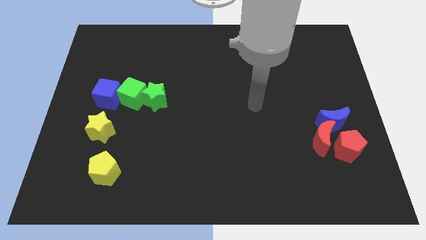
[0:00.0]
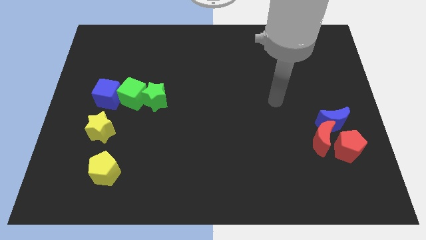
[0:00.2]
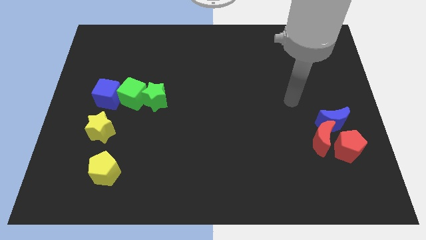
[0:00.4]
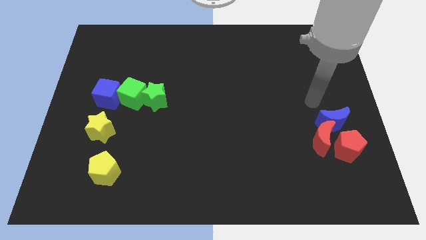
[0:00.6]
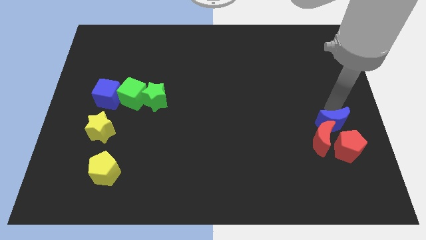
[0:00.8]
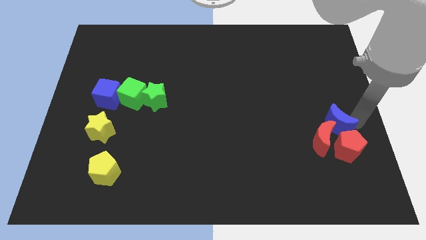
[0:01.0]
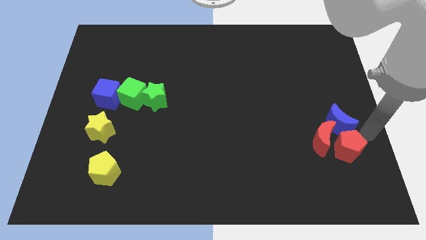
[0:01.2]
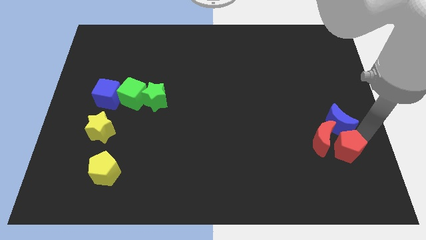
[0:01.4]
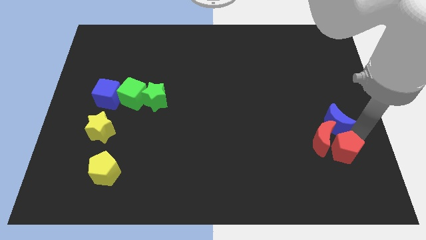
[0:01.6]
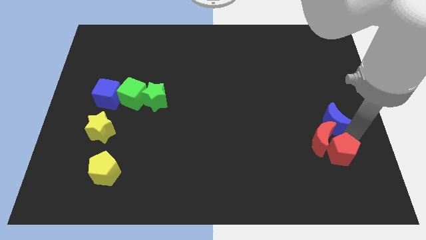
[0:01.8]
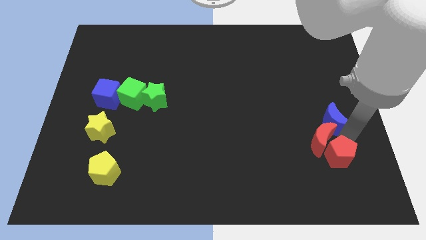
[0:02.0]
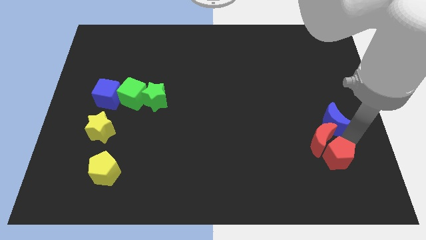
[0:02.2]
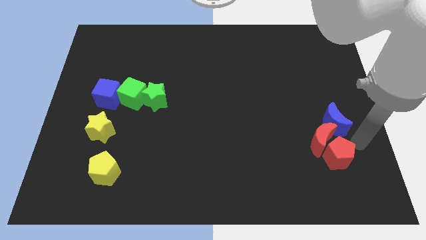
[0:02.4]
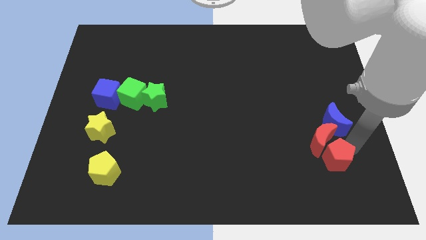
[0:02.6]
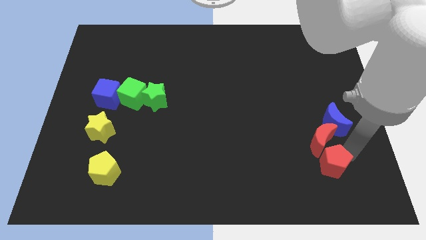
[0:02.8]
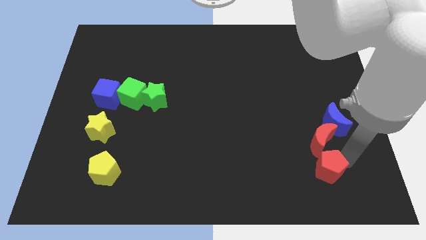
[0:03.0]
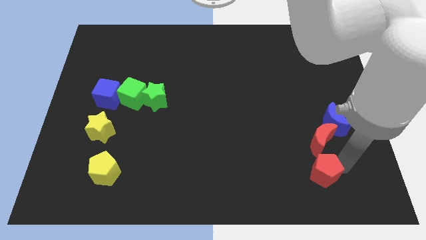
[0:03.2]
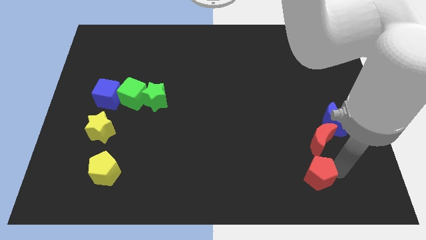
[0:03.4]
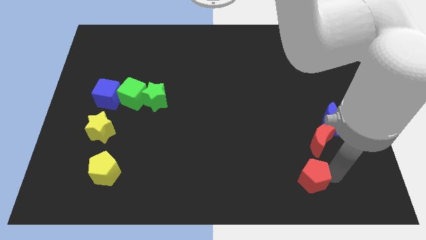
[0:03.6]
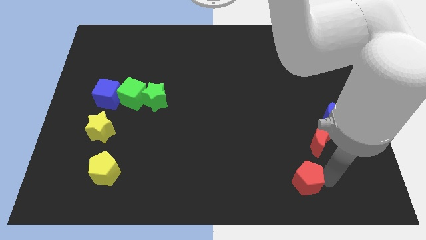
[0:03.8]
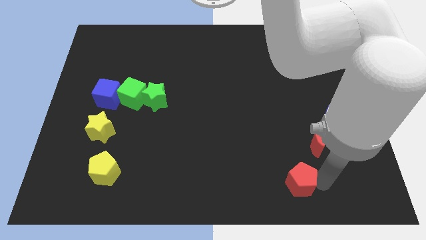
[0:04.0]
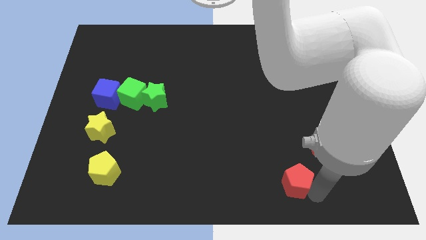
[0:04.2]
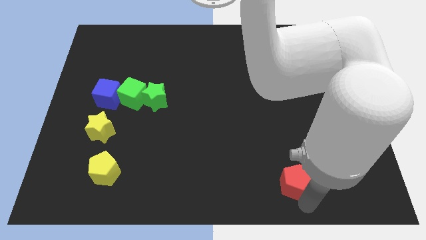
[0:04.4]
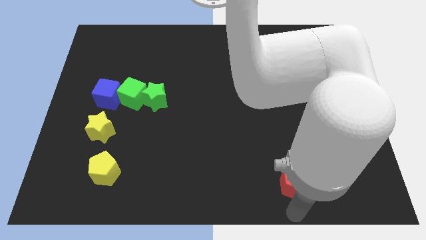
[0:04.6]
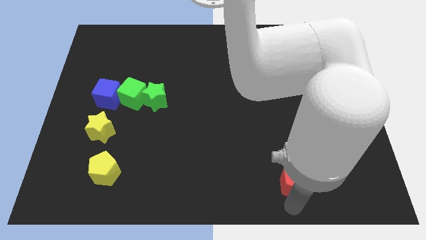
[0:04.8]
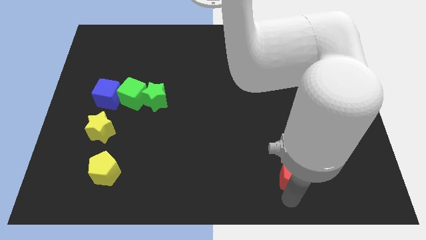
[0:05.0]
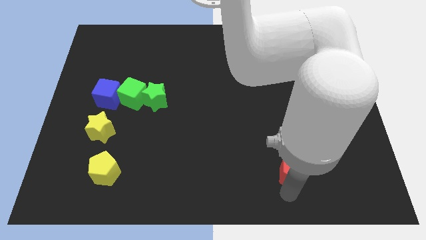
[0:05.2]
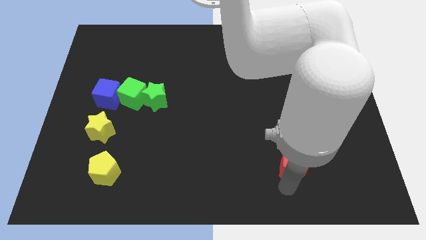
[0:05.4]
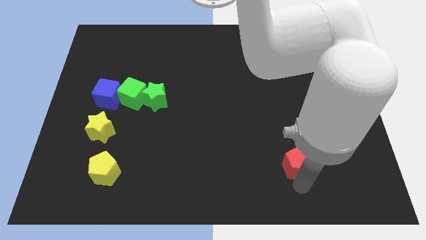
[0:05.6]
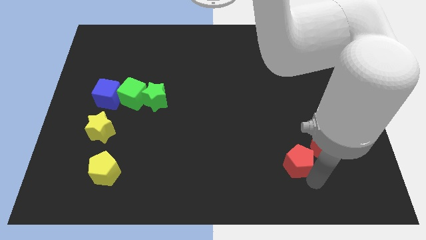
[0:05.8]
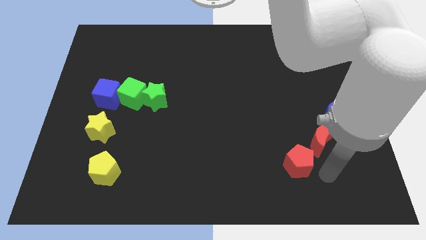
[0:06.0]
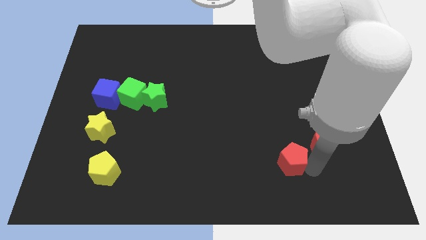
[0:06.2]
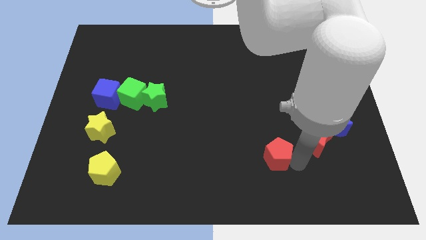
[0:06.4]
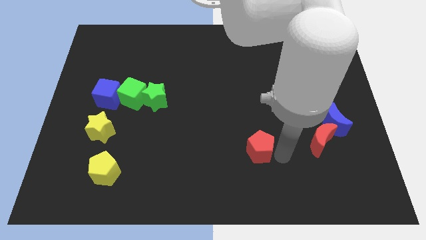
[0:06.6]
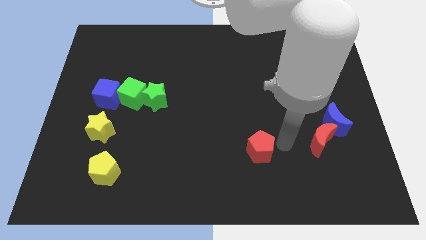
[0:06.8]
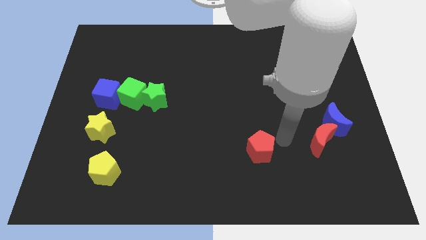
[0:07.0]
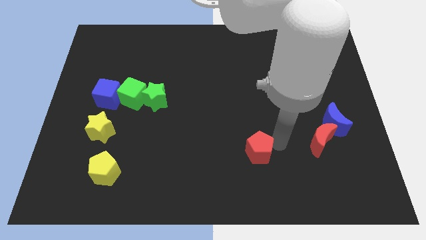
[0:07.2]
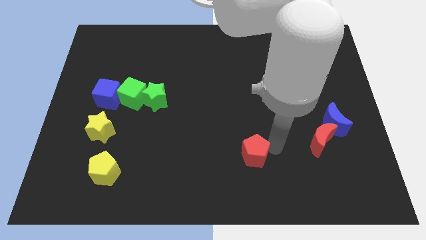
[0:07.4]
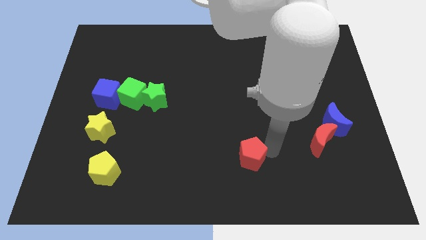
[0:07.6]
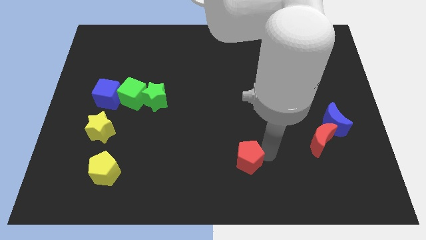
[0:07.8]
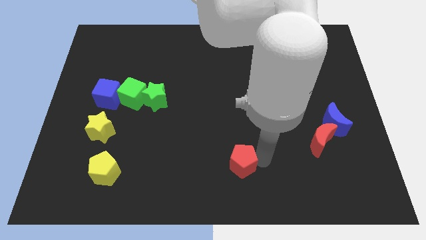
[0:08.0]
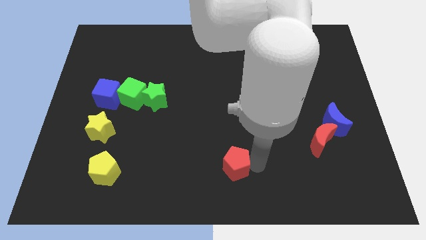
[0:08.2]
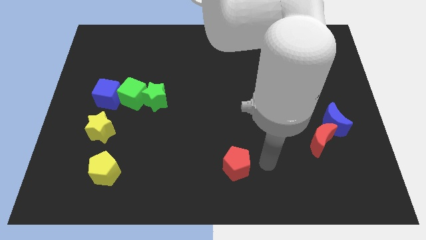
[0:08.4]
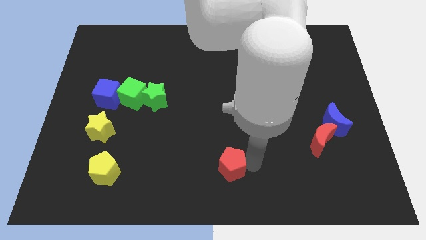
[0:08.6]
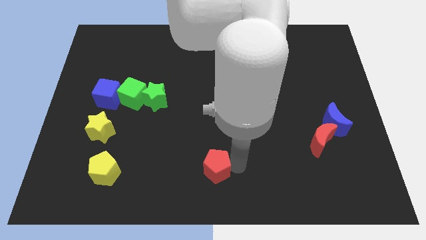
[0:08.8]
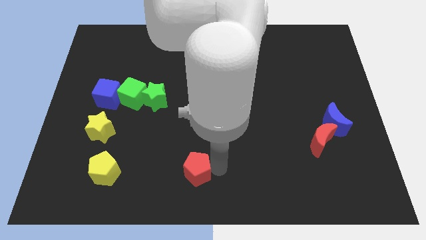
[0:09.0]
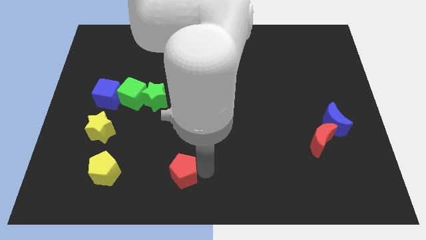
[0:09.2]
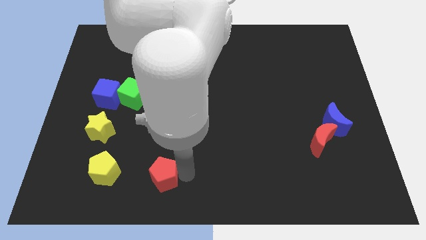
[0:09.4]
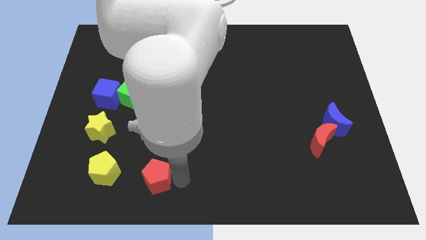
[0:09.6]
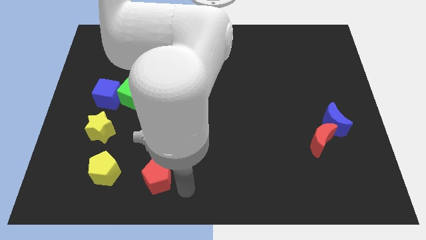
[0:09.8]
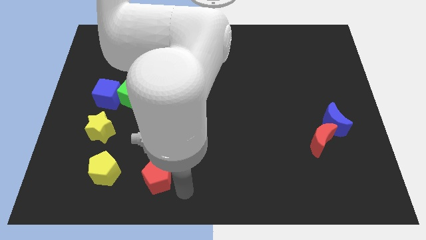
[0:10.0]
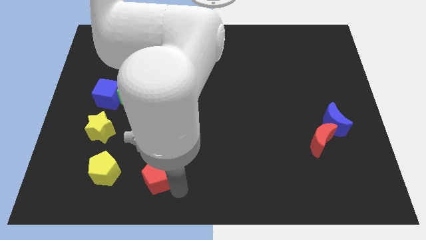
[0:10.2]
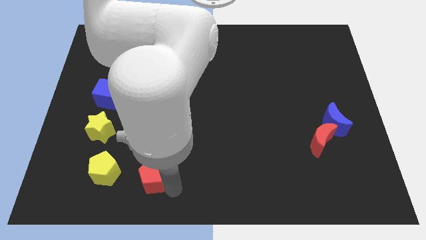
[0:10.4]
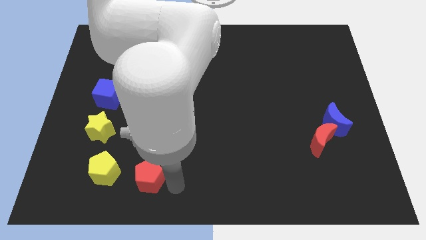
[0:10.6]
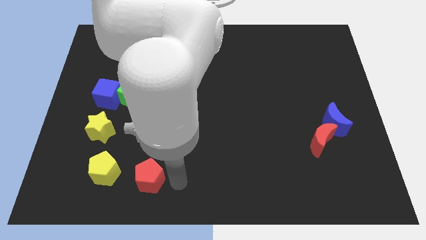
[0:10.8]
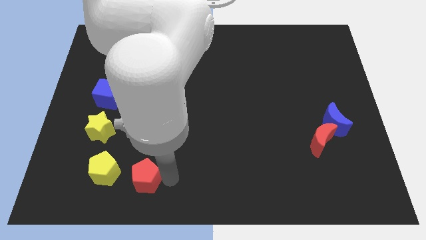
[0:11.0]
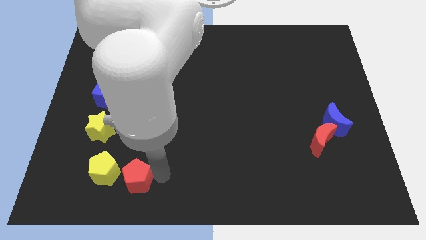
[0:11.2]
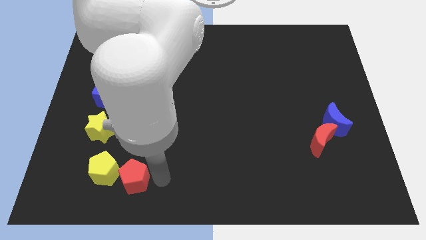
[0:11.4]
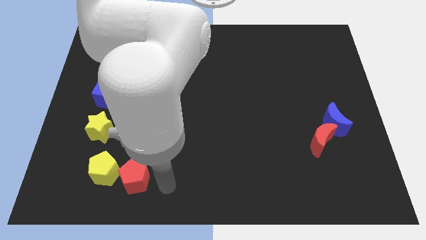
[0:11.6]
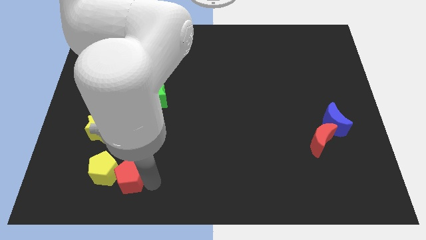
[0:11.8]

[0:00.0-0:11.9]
put the red pentagon close to the yellow pentagon
